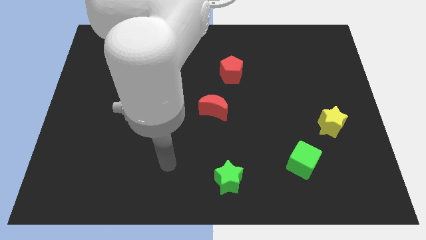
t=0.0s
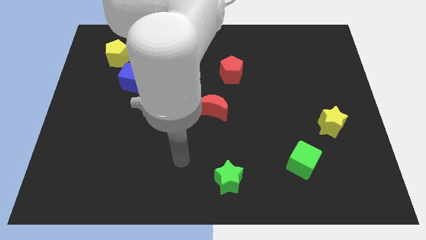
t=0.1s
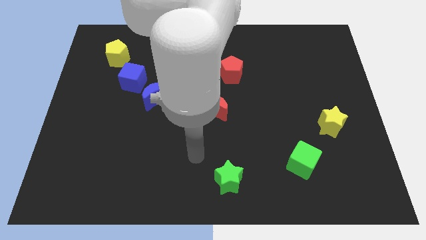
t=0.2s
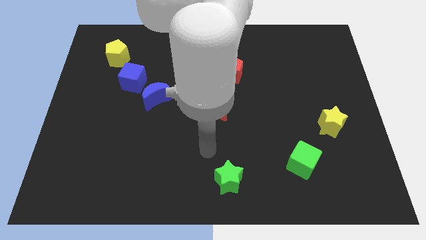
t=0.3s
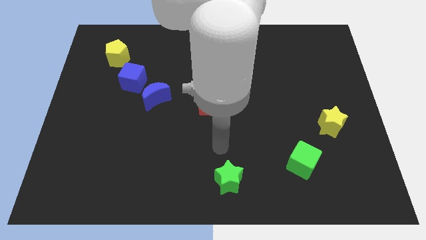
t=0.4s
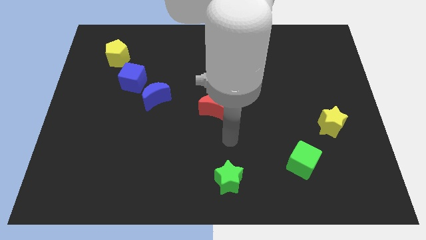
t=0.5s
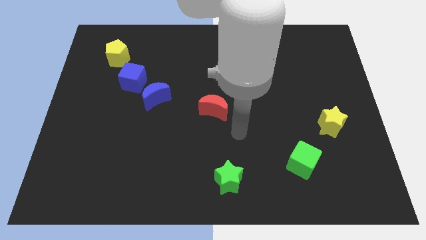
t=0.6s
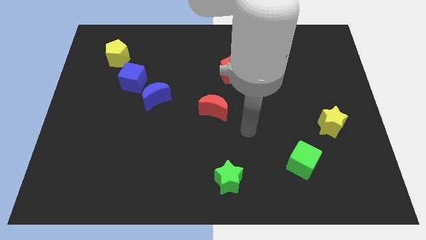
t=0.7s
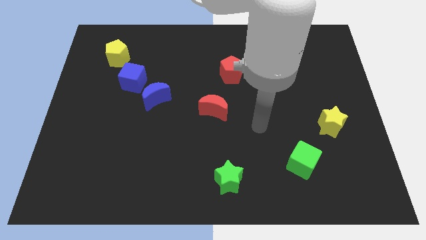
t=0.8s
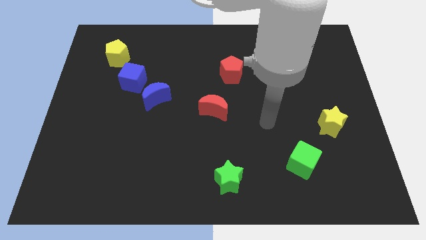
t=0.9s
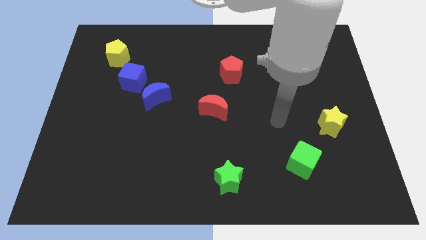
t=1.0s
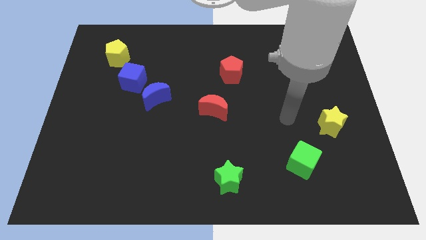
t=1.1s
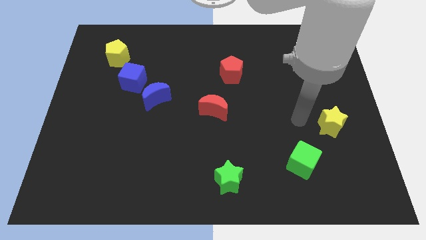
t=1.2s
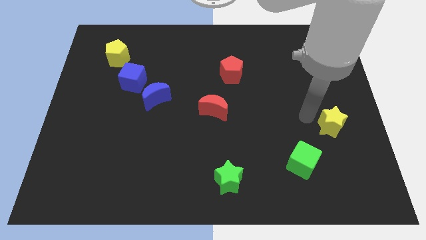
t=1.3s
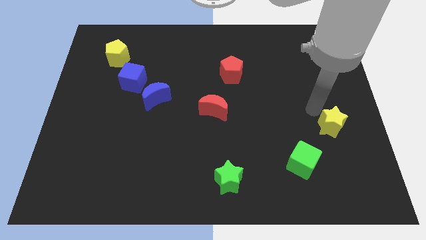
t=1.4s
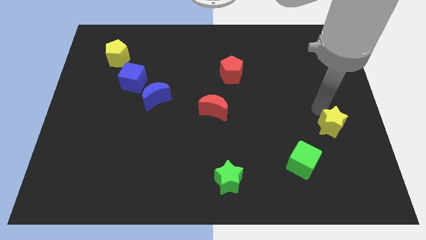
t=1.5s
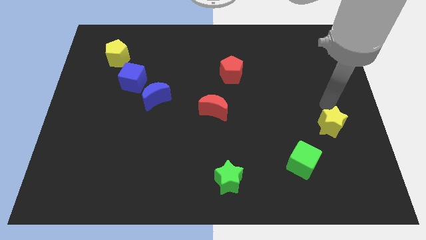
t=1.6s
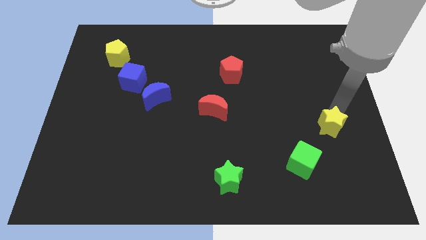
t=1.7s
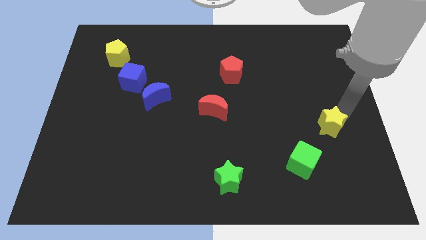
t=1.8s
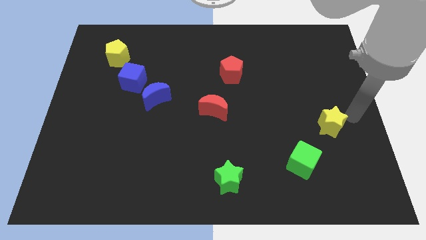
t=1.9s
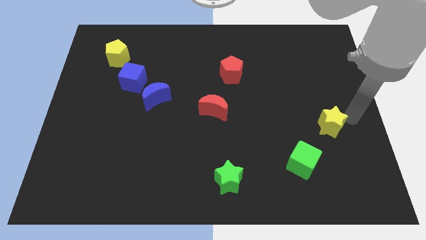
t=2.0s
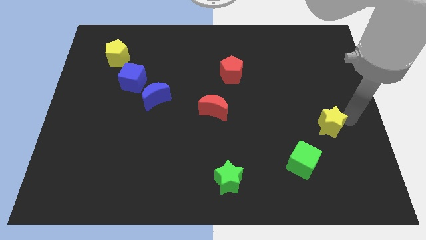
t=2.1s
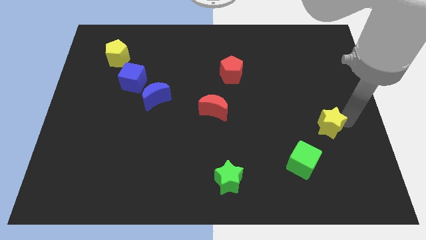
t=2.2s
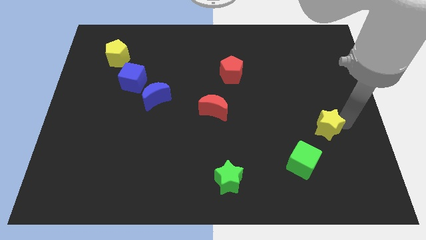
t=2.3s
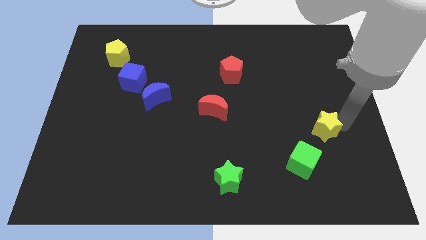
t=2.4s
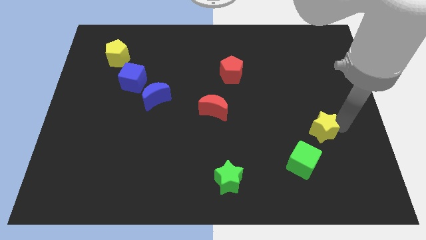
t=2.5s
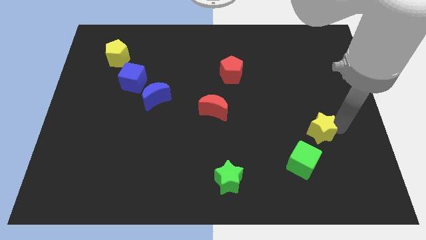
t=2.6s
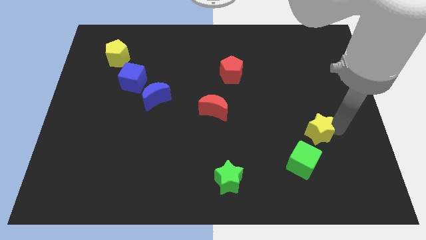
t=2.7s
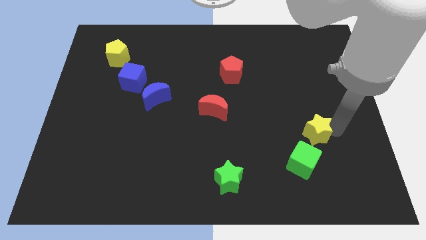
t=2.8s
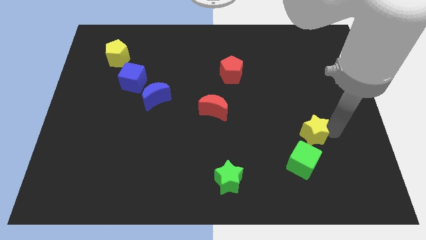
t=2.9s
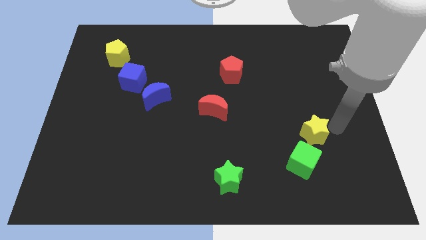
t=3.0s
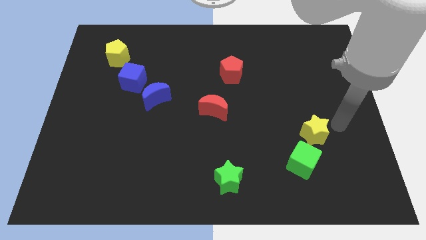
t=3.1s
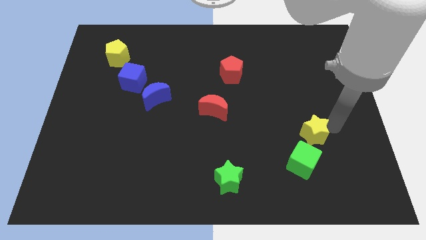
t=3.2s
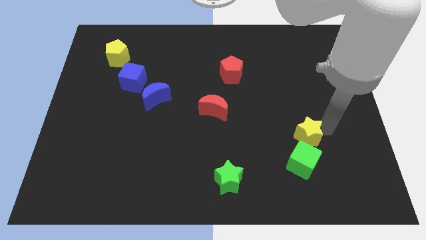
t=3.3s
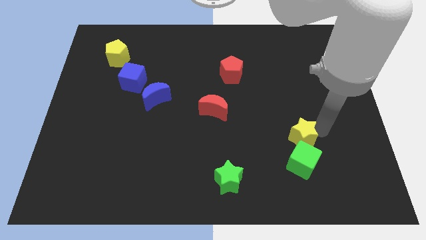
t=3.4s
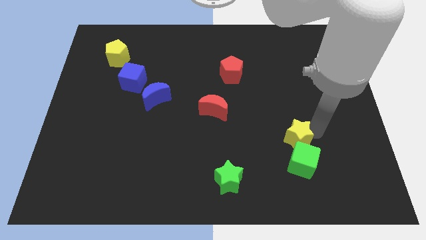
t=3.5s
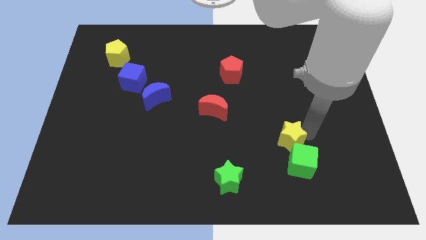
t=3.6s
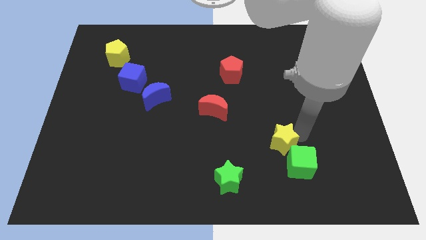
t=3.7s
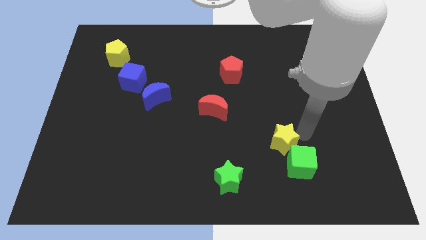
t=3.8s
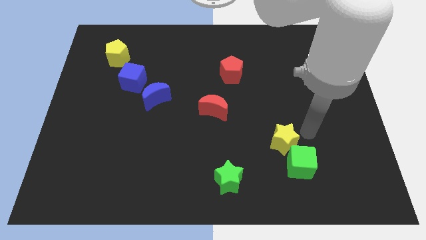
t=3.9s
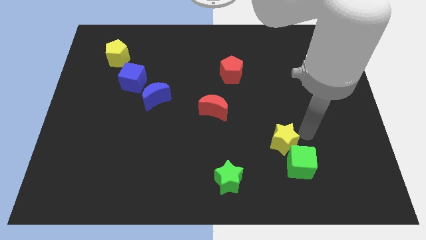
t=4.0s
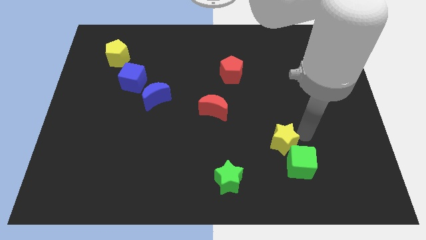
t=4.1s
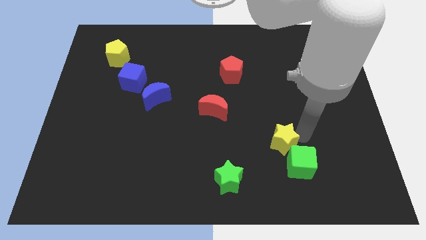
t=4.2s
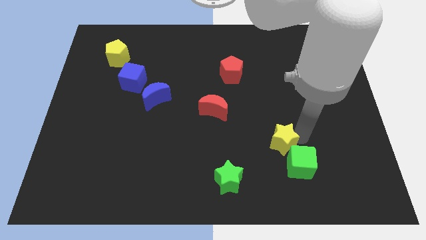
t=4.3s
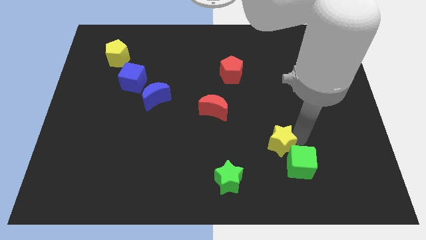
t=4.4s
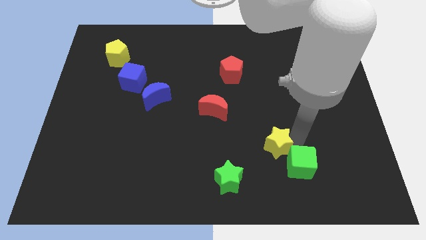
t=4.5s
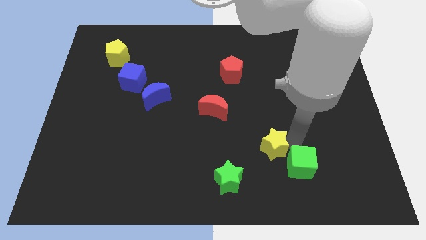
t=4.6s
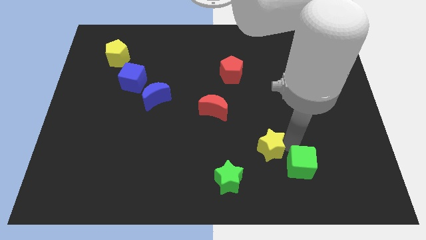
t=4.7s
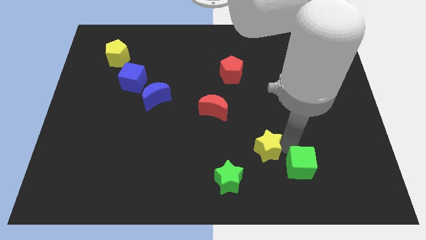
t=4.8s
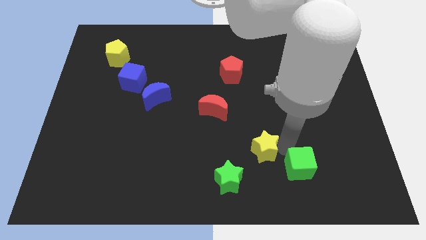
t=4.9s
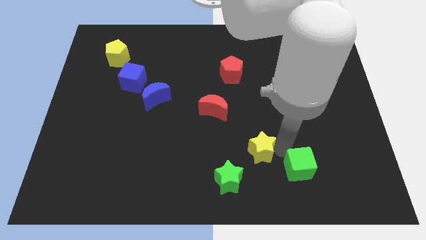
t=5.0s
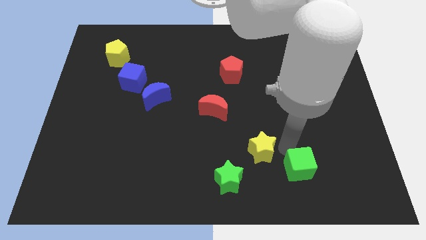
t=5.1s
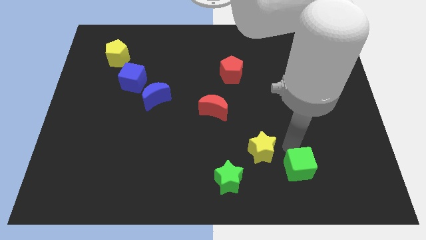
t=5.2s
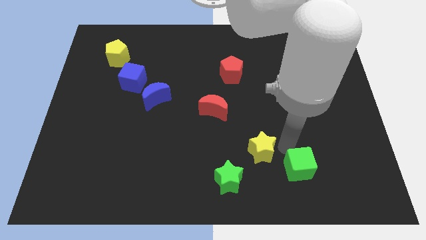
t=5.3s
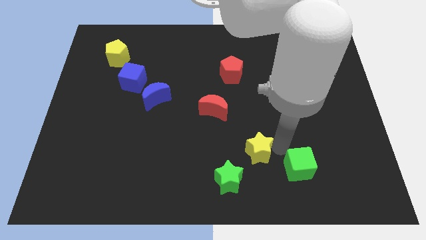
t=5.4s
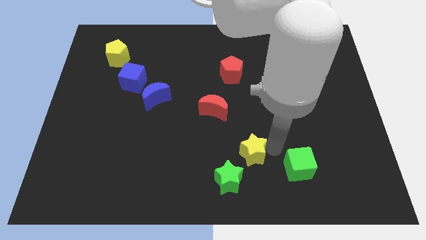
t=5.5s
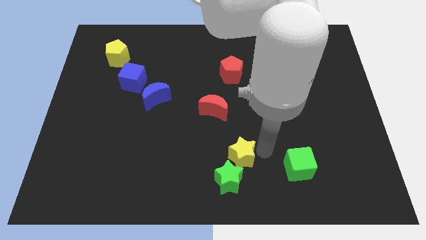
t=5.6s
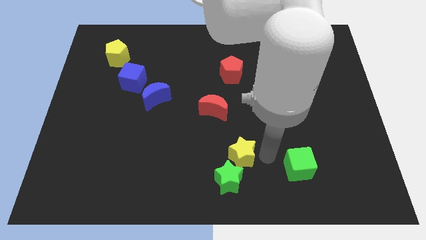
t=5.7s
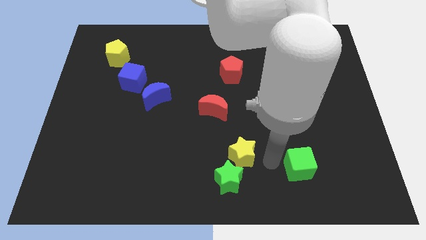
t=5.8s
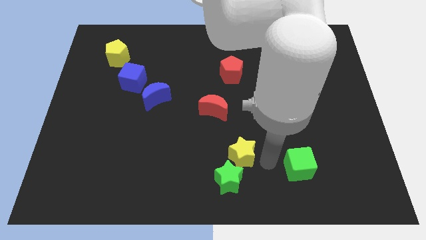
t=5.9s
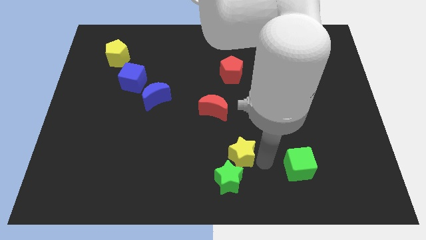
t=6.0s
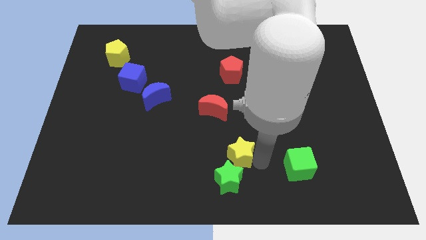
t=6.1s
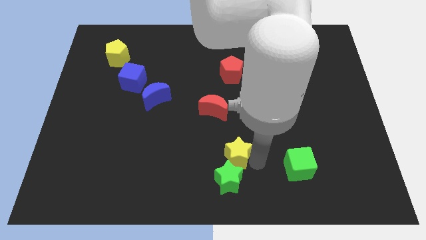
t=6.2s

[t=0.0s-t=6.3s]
slide the yellow star below the red moon

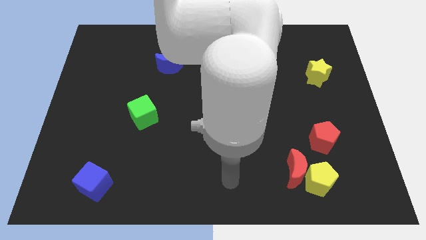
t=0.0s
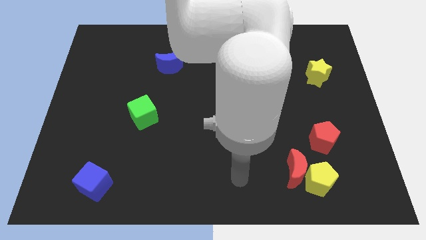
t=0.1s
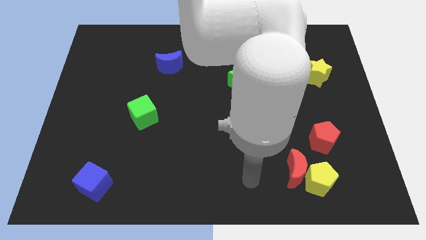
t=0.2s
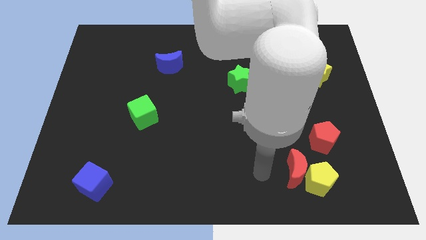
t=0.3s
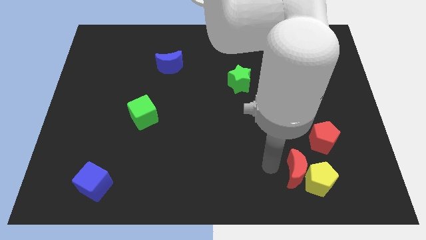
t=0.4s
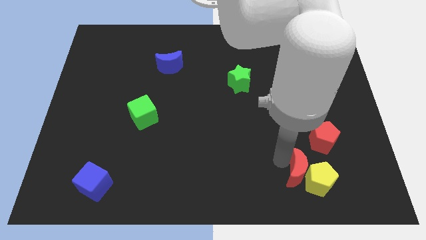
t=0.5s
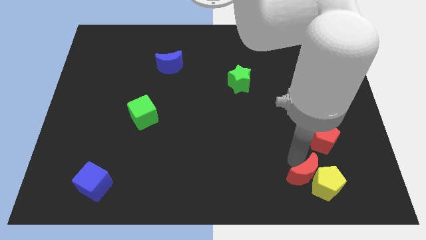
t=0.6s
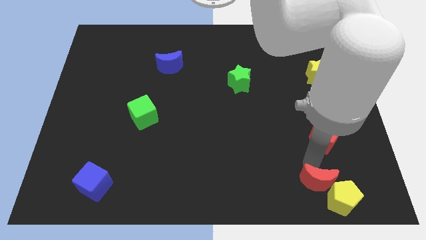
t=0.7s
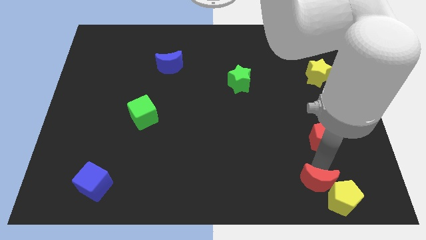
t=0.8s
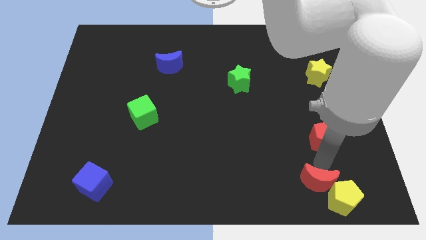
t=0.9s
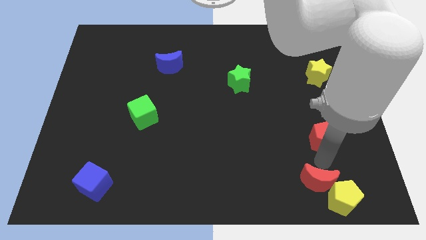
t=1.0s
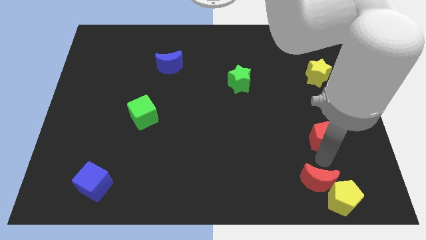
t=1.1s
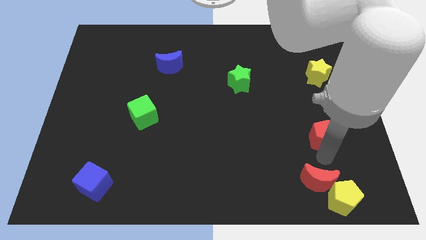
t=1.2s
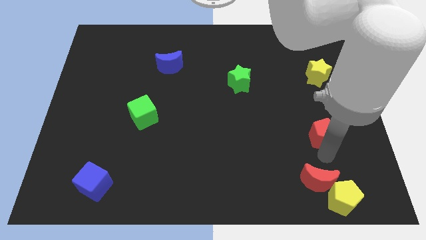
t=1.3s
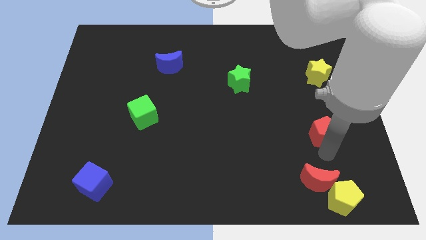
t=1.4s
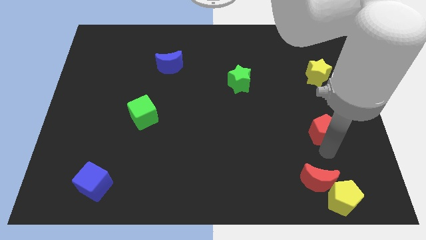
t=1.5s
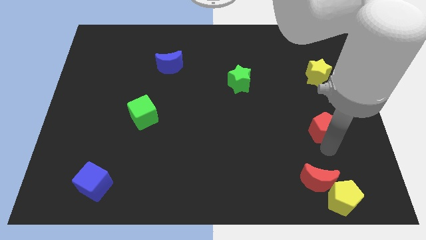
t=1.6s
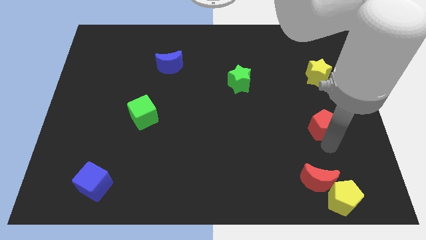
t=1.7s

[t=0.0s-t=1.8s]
push the red pentagon to the bottom side of the yellow star

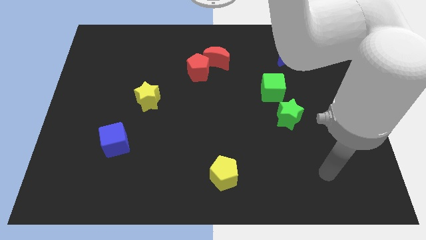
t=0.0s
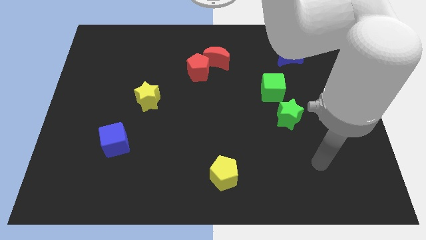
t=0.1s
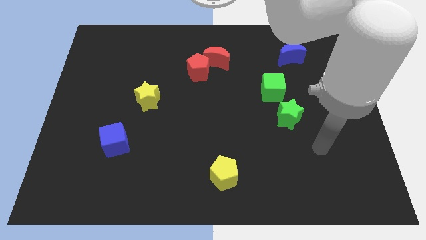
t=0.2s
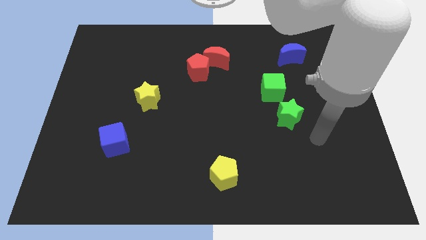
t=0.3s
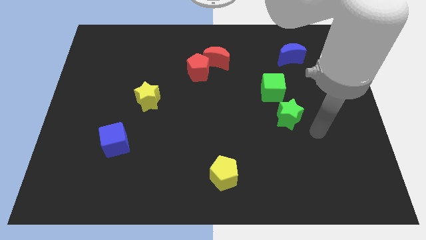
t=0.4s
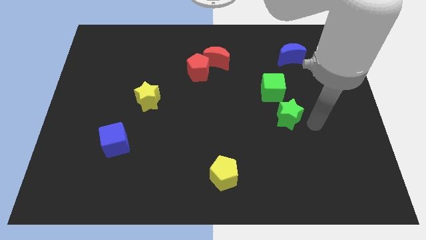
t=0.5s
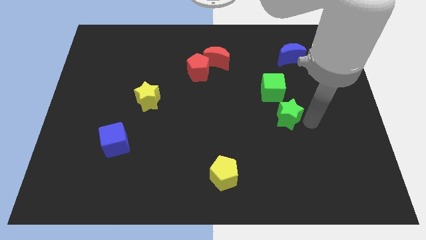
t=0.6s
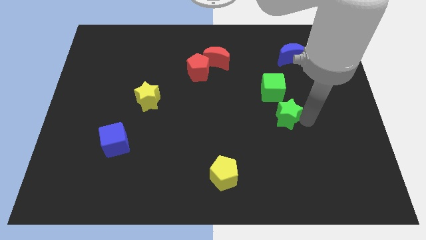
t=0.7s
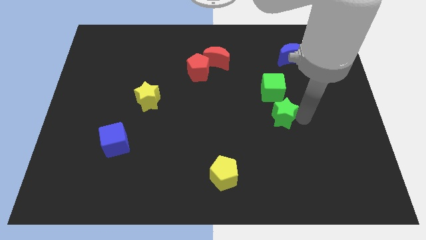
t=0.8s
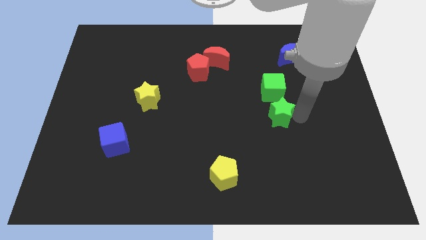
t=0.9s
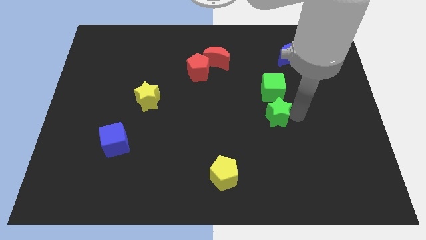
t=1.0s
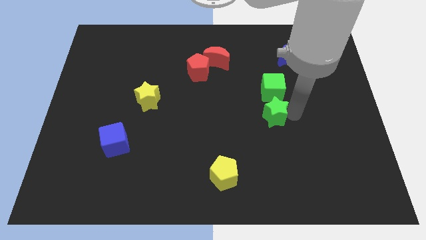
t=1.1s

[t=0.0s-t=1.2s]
move the green star to the bottom left of the green cube
